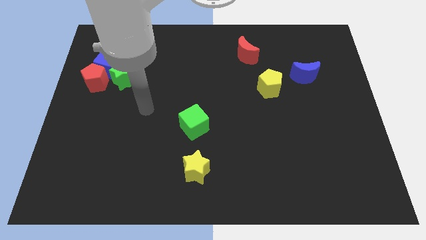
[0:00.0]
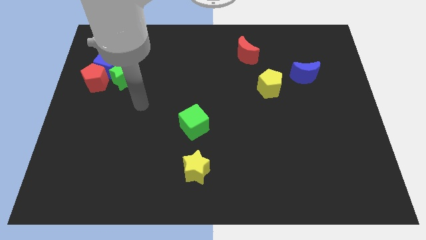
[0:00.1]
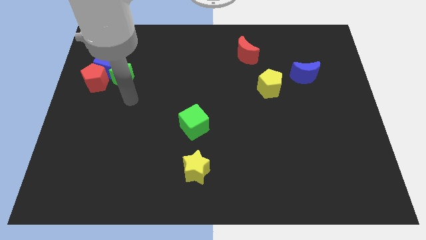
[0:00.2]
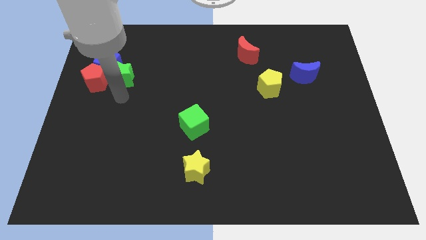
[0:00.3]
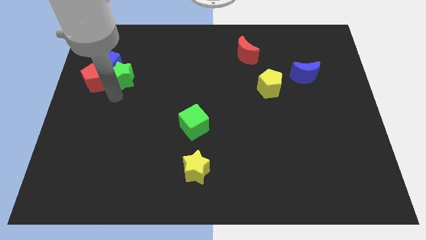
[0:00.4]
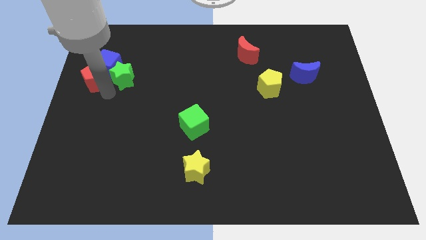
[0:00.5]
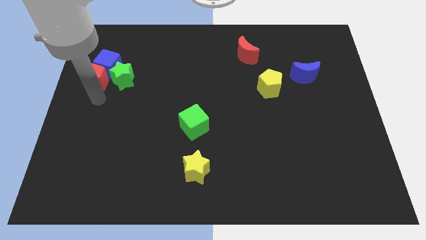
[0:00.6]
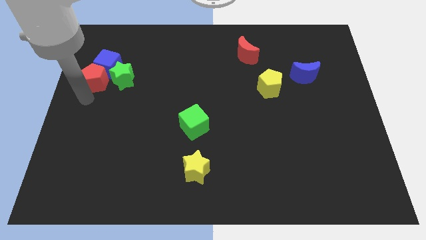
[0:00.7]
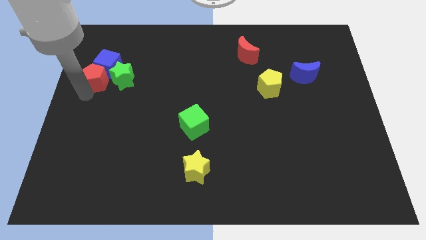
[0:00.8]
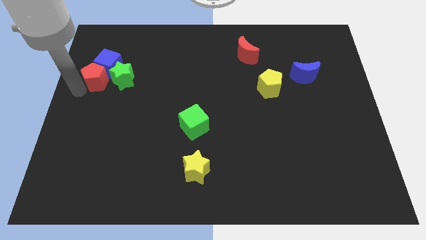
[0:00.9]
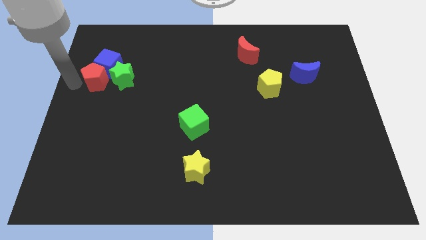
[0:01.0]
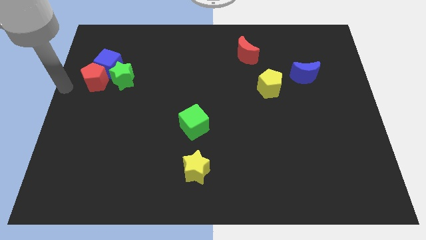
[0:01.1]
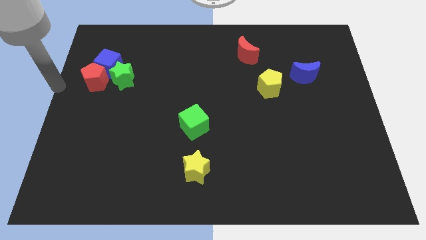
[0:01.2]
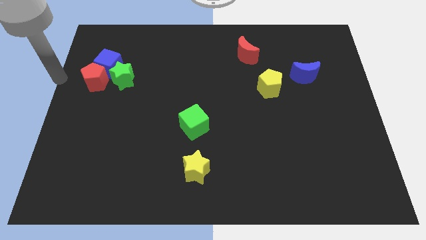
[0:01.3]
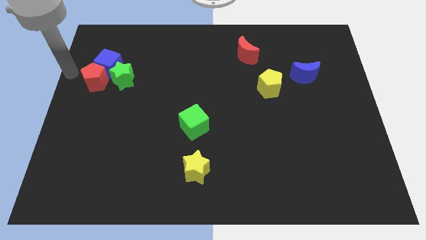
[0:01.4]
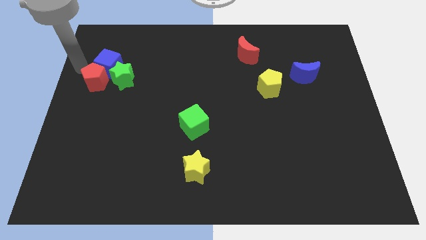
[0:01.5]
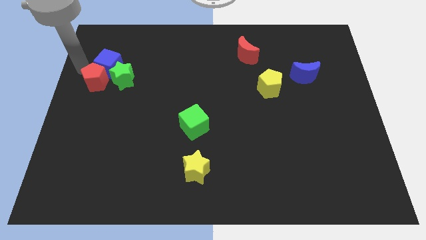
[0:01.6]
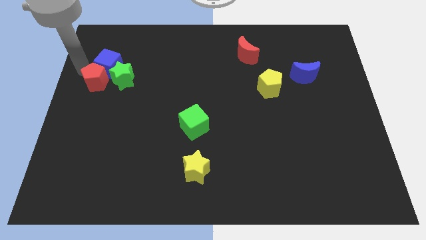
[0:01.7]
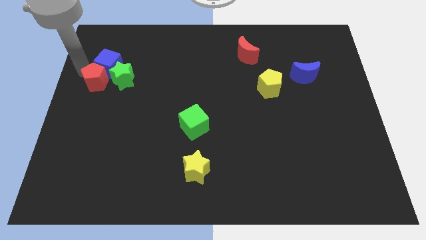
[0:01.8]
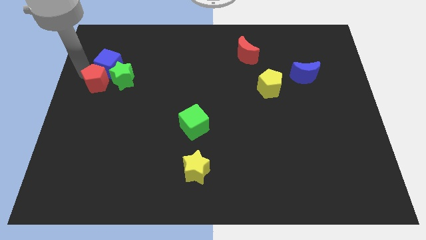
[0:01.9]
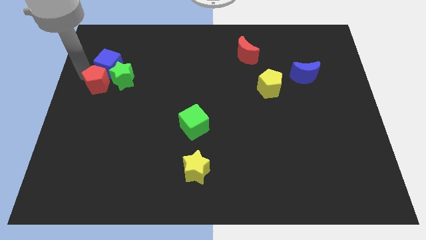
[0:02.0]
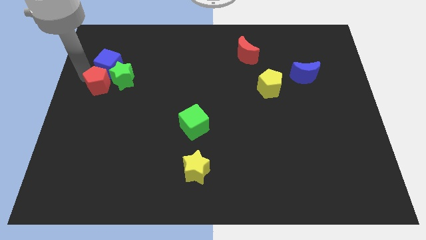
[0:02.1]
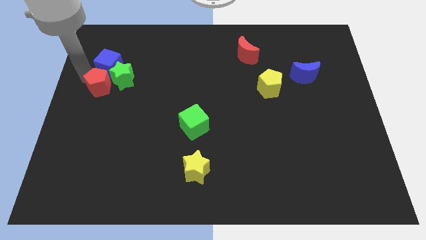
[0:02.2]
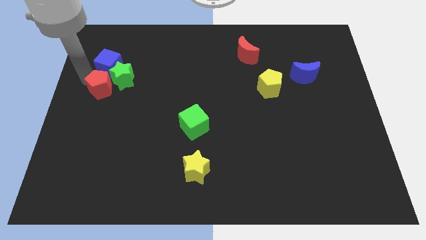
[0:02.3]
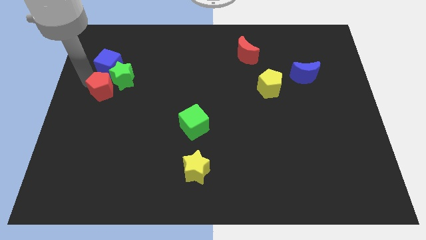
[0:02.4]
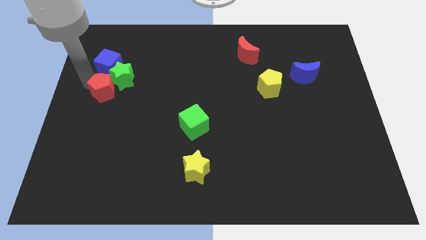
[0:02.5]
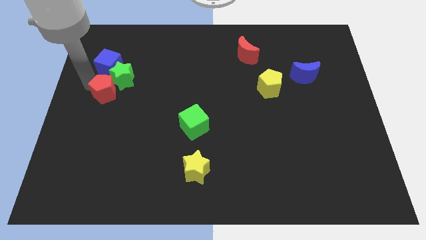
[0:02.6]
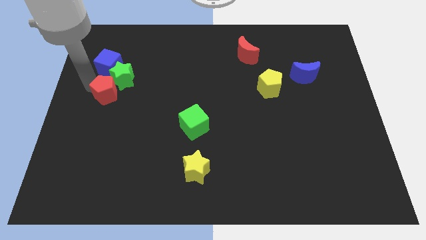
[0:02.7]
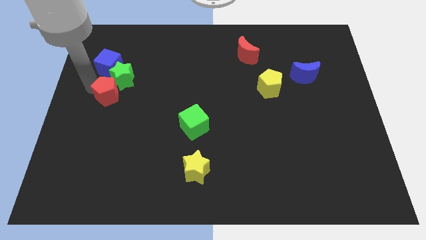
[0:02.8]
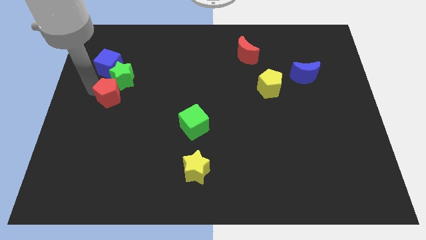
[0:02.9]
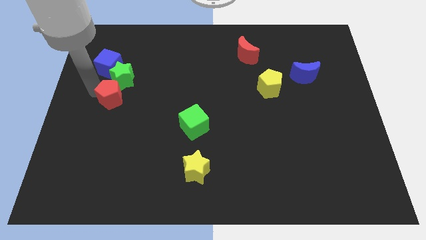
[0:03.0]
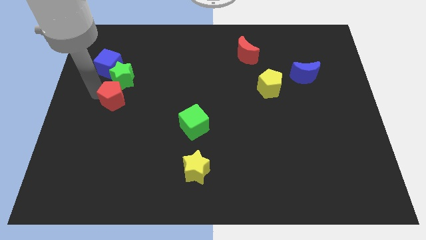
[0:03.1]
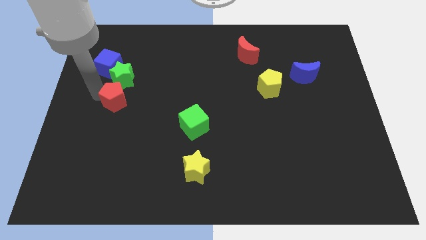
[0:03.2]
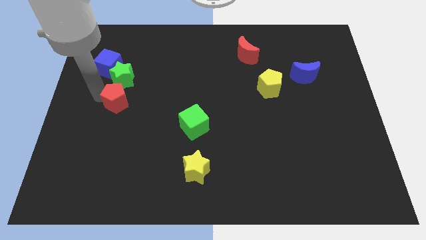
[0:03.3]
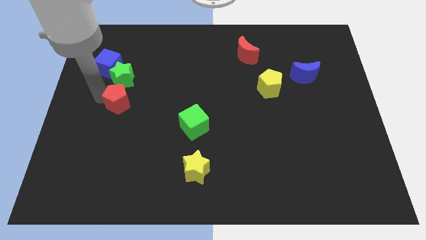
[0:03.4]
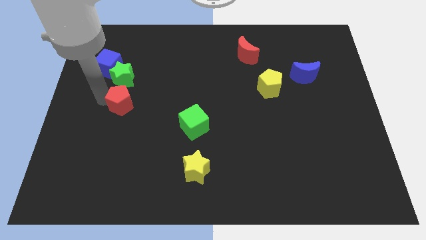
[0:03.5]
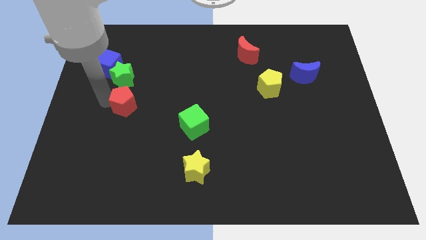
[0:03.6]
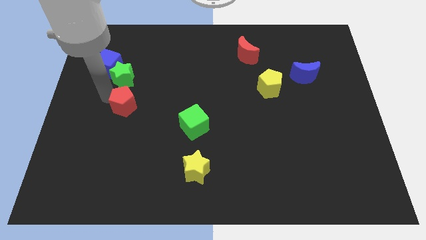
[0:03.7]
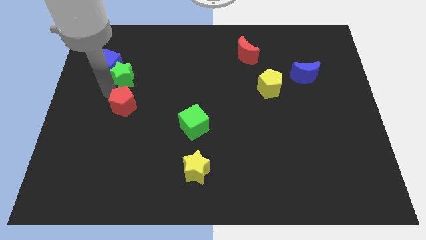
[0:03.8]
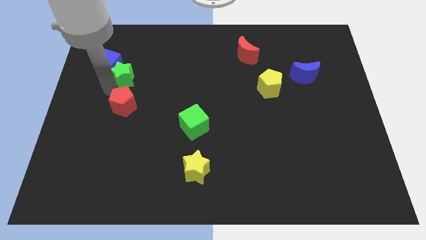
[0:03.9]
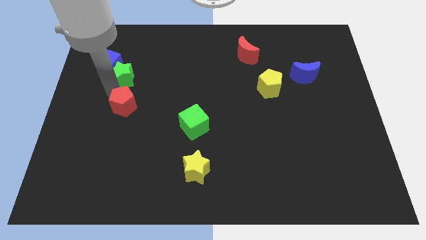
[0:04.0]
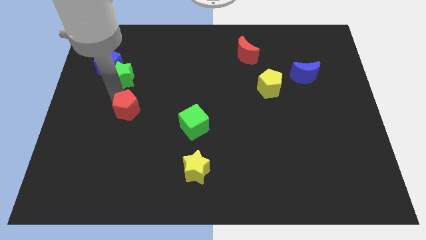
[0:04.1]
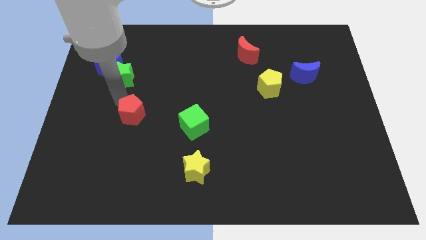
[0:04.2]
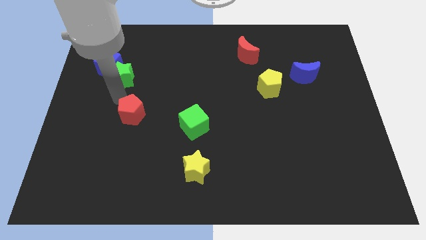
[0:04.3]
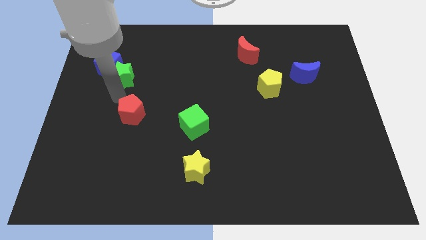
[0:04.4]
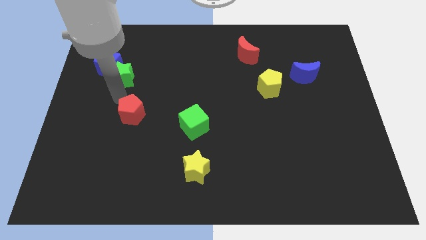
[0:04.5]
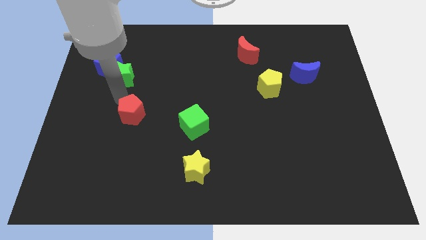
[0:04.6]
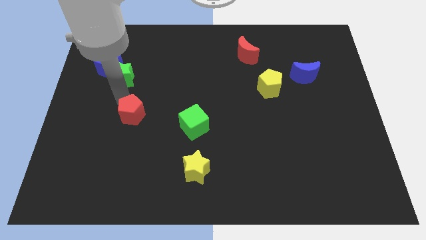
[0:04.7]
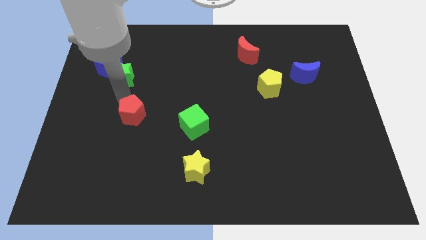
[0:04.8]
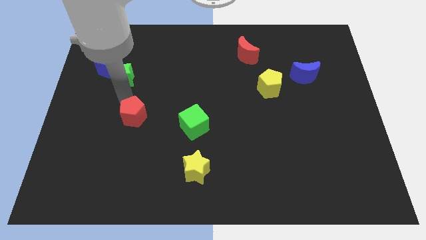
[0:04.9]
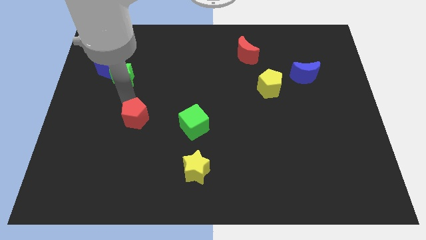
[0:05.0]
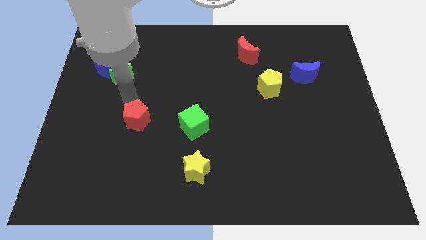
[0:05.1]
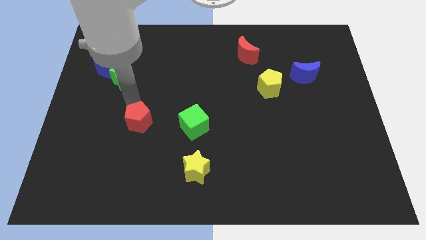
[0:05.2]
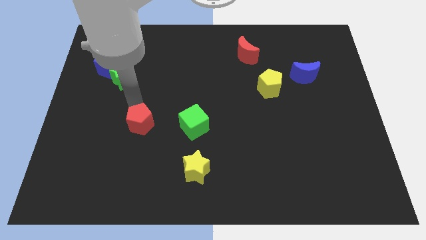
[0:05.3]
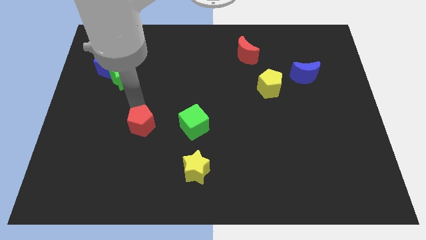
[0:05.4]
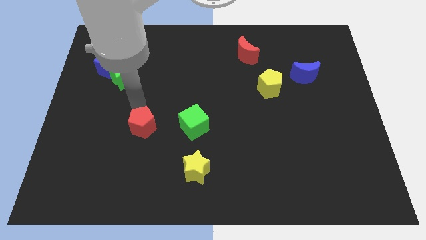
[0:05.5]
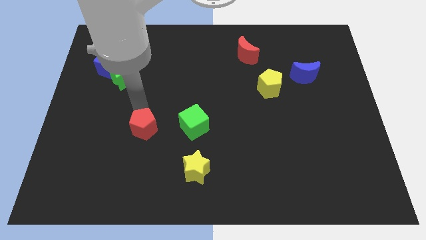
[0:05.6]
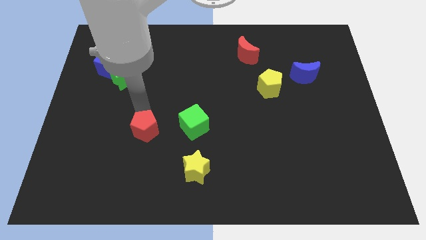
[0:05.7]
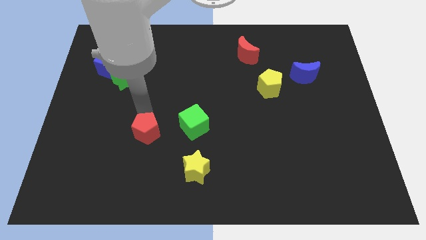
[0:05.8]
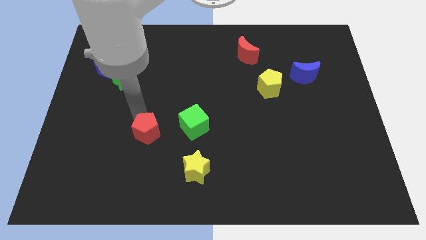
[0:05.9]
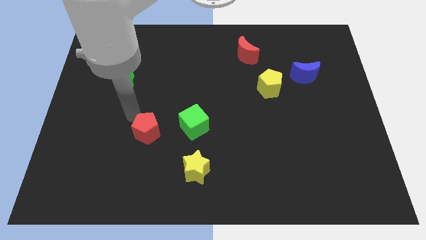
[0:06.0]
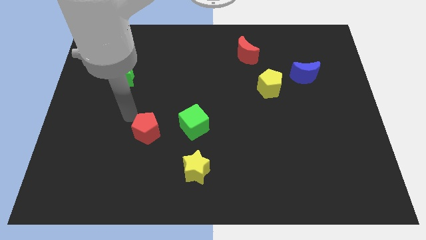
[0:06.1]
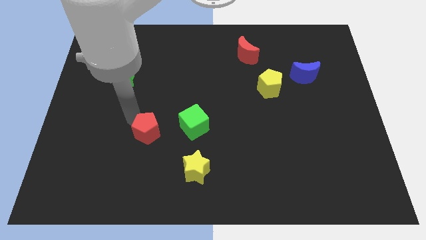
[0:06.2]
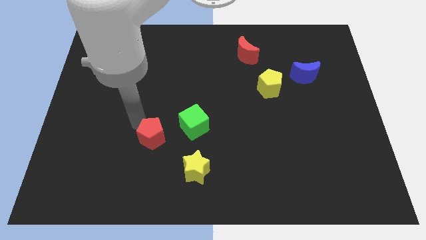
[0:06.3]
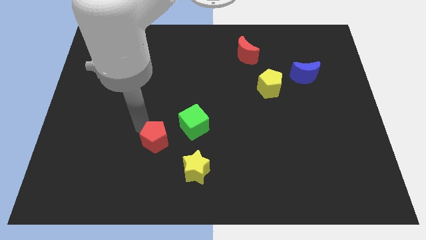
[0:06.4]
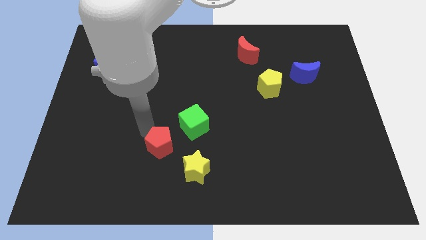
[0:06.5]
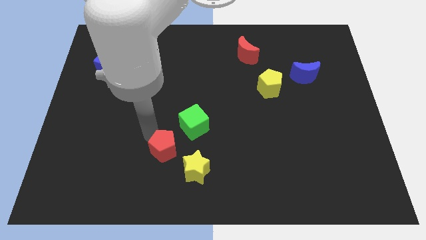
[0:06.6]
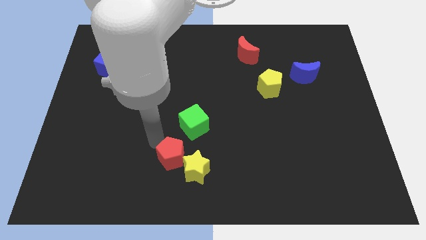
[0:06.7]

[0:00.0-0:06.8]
put the red pentagon next to the yellow star
